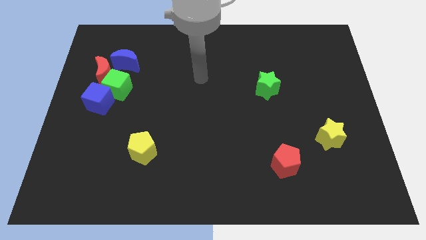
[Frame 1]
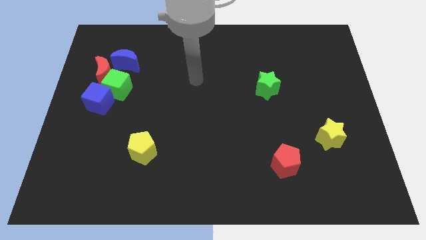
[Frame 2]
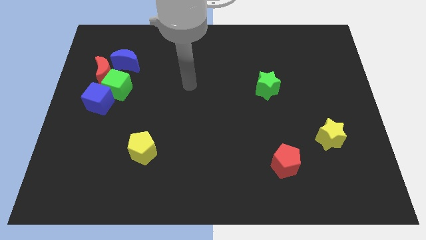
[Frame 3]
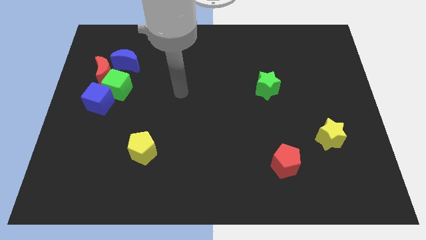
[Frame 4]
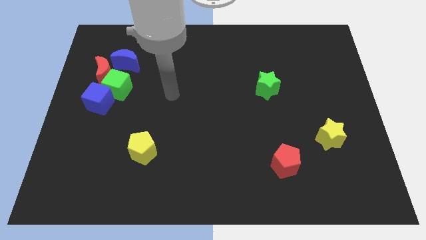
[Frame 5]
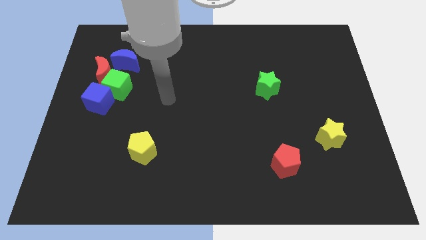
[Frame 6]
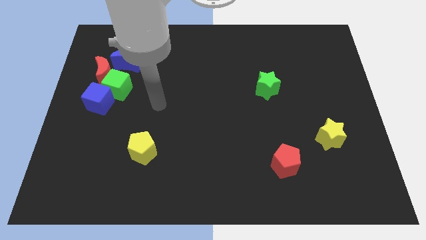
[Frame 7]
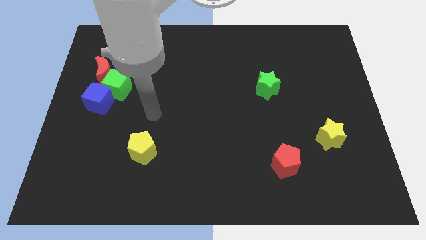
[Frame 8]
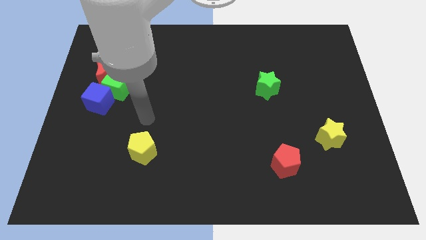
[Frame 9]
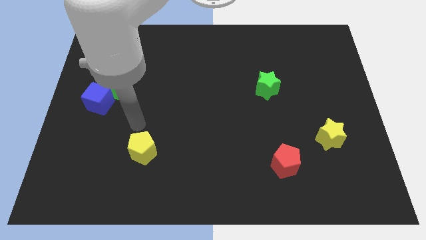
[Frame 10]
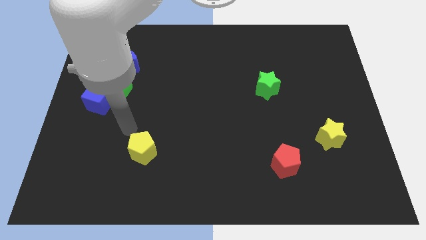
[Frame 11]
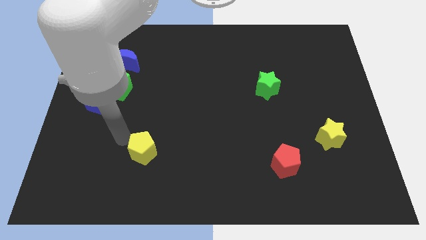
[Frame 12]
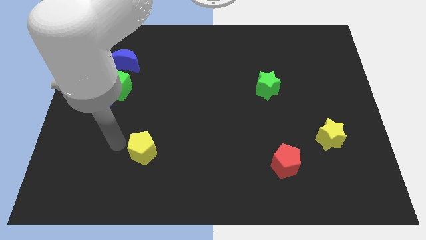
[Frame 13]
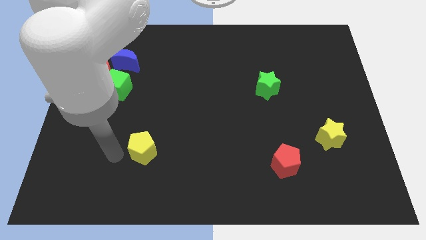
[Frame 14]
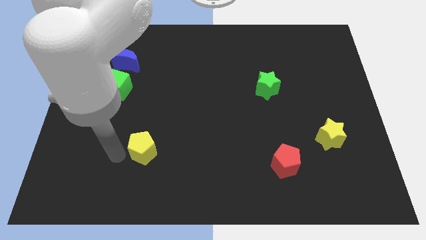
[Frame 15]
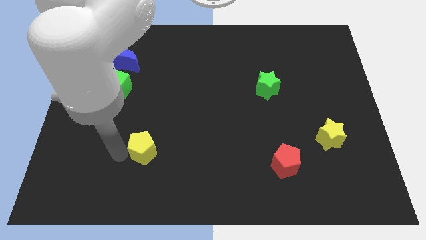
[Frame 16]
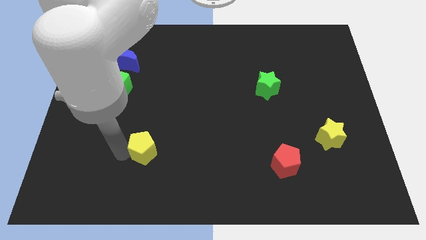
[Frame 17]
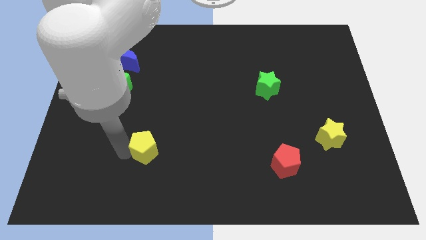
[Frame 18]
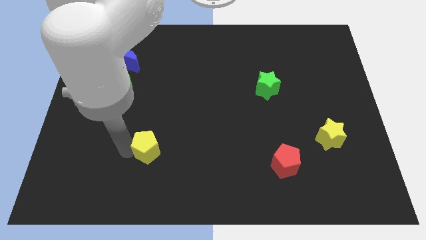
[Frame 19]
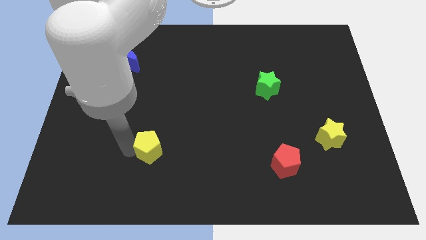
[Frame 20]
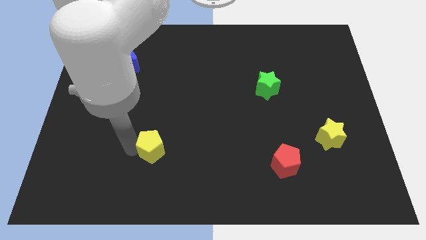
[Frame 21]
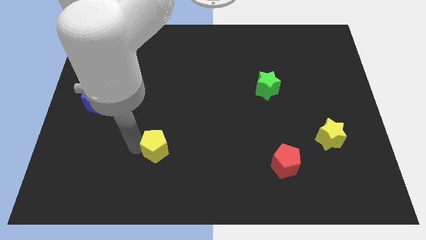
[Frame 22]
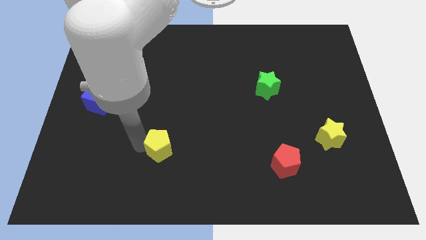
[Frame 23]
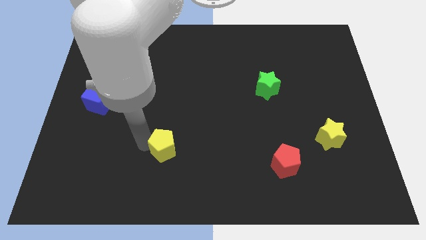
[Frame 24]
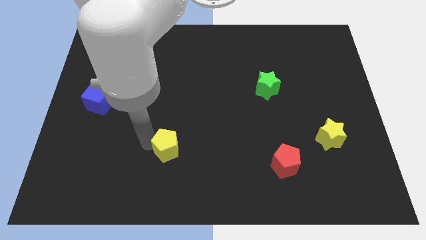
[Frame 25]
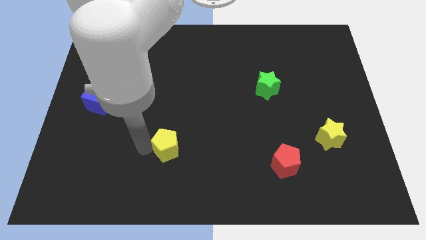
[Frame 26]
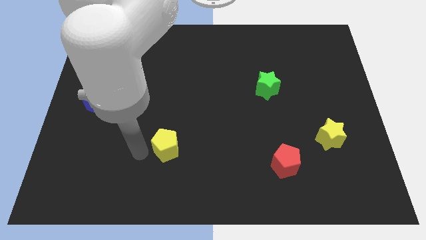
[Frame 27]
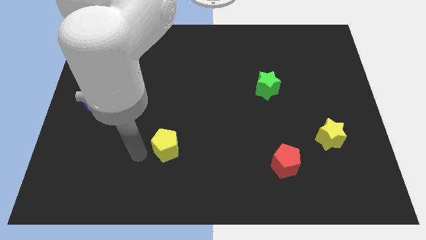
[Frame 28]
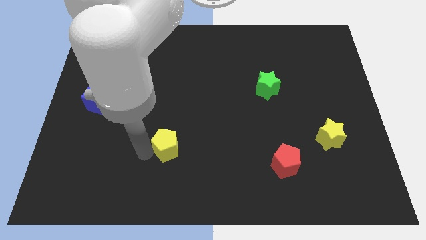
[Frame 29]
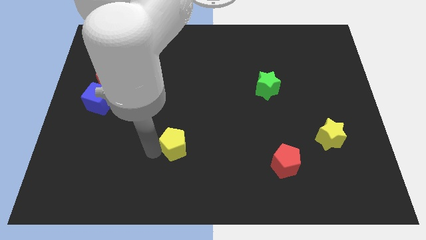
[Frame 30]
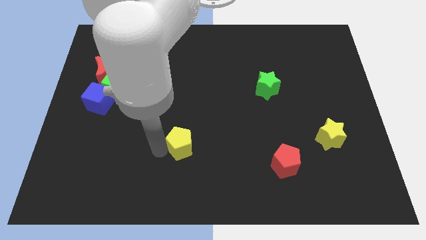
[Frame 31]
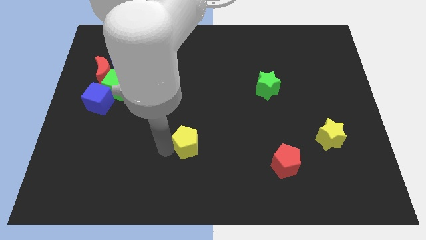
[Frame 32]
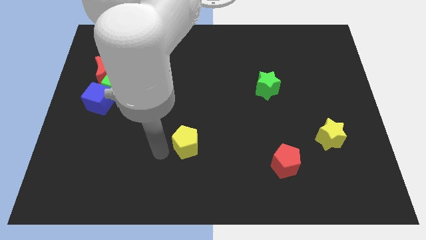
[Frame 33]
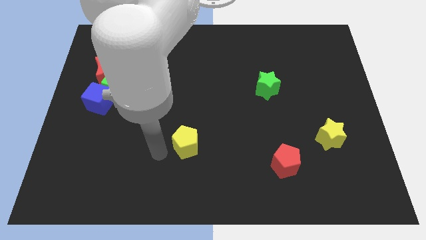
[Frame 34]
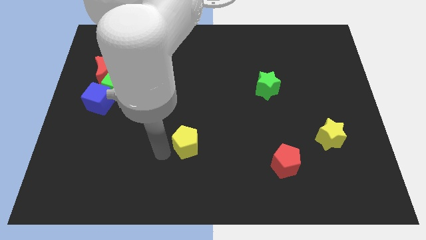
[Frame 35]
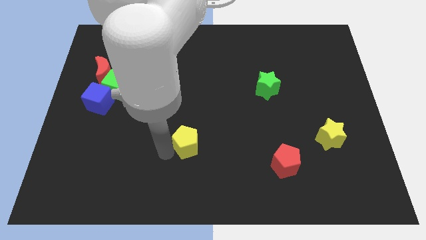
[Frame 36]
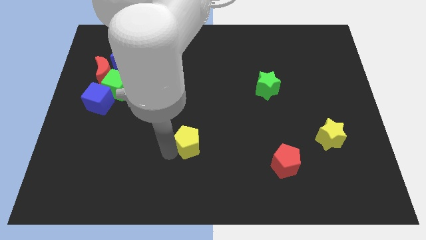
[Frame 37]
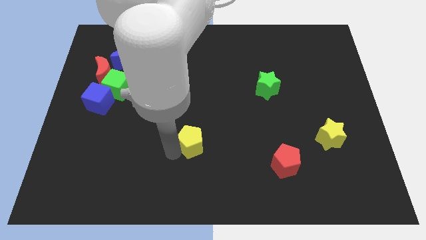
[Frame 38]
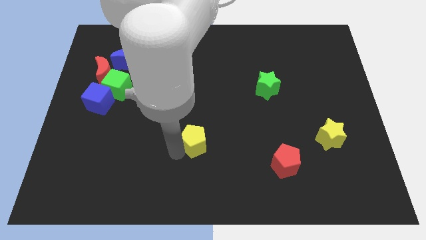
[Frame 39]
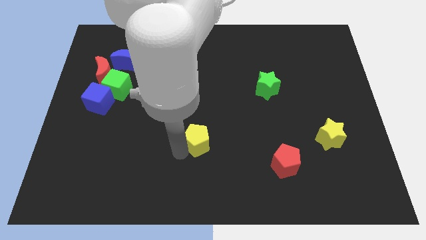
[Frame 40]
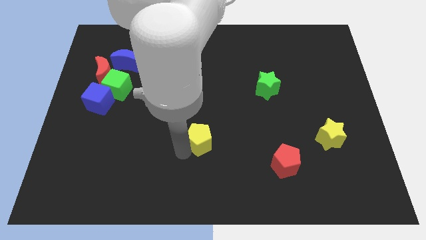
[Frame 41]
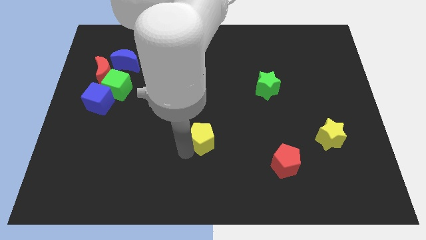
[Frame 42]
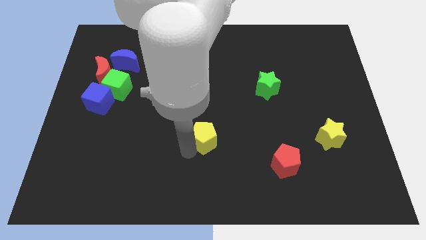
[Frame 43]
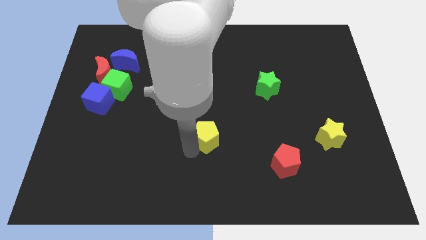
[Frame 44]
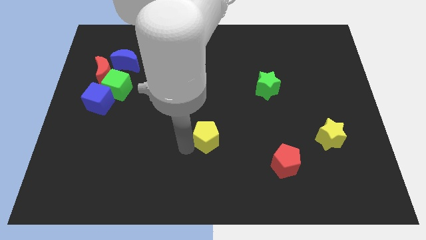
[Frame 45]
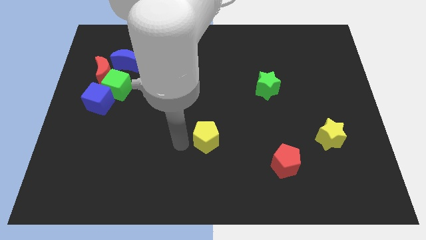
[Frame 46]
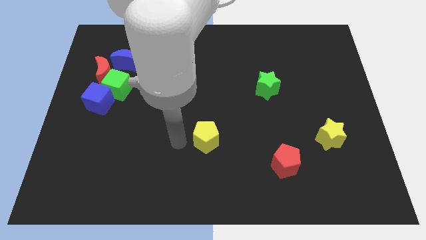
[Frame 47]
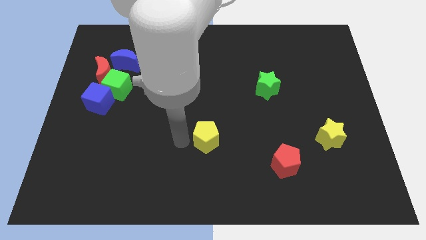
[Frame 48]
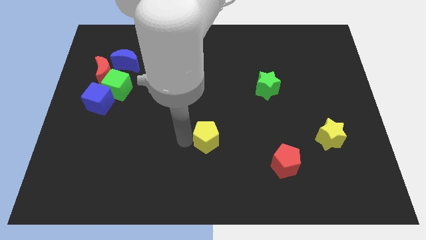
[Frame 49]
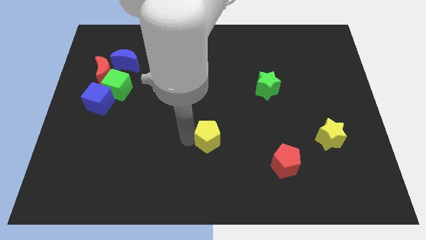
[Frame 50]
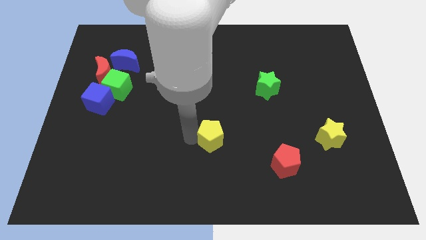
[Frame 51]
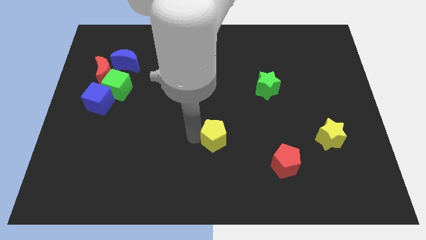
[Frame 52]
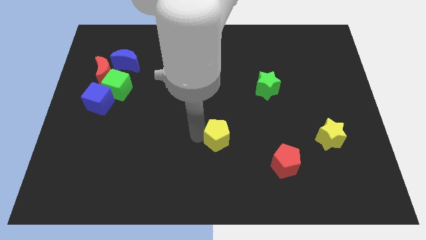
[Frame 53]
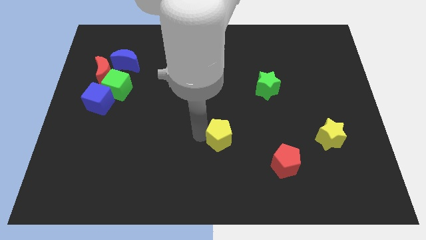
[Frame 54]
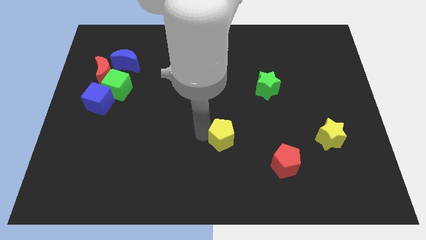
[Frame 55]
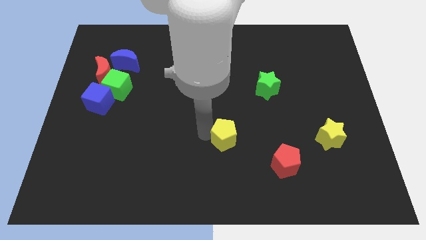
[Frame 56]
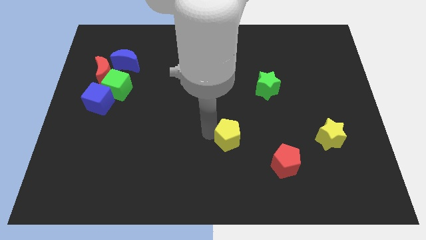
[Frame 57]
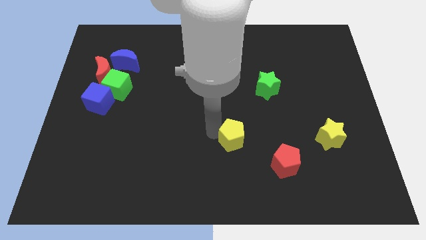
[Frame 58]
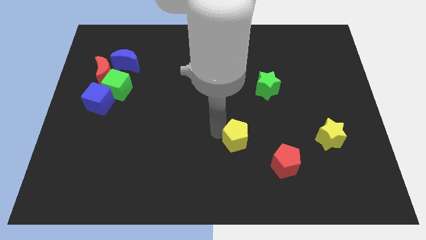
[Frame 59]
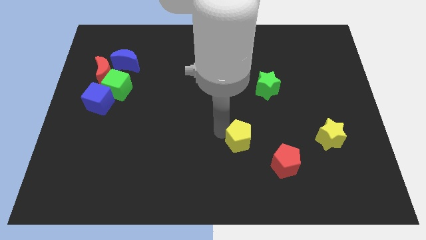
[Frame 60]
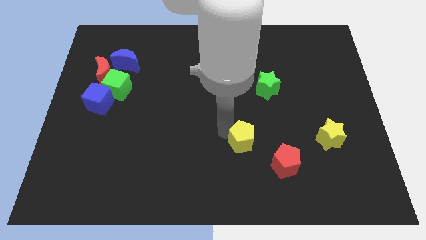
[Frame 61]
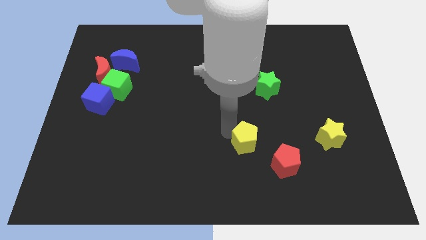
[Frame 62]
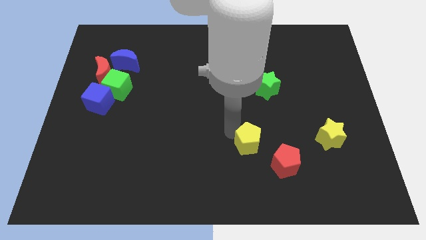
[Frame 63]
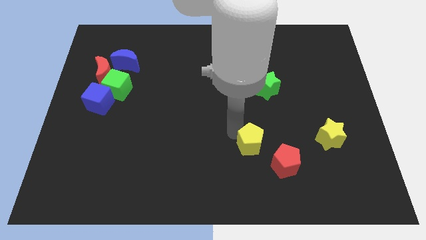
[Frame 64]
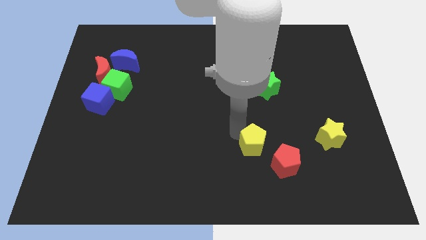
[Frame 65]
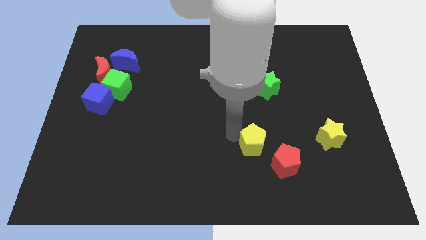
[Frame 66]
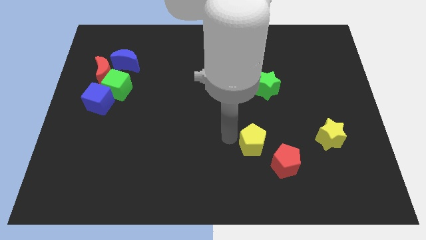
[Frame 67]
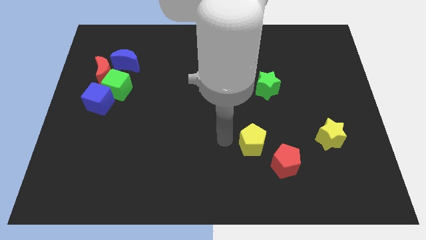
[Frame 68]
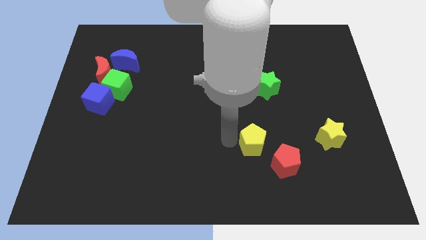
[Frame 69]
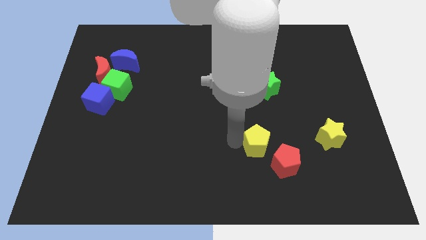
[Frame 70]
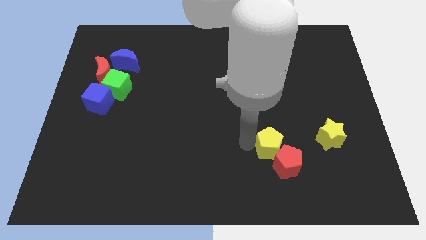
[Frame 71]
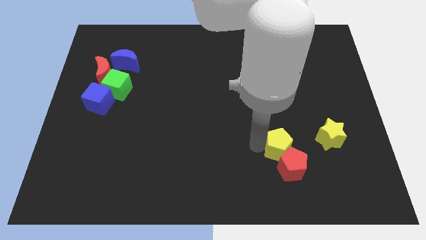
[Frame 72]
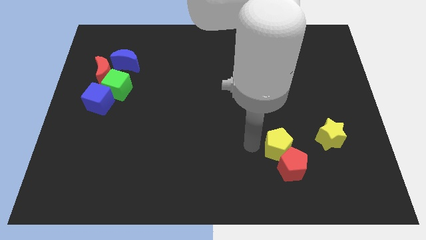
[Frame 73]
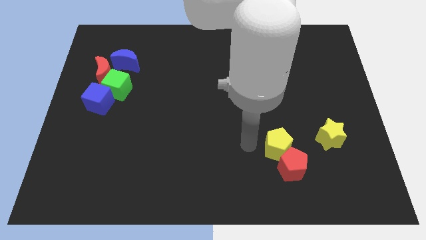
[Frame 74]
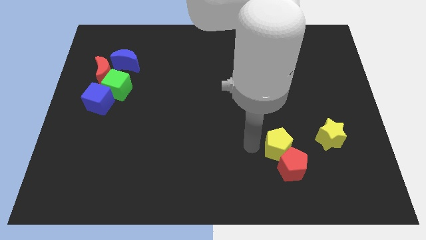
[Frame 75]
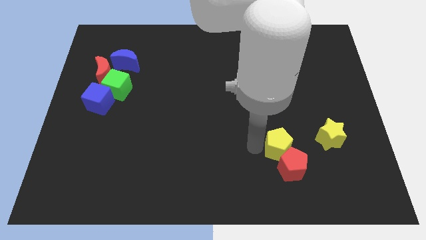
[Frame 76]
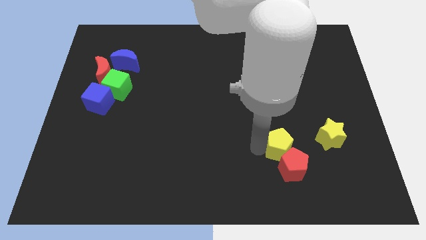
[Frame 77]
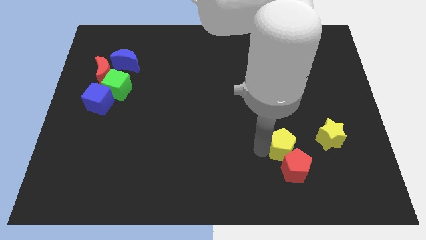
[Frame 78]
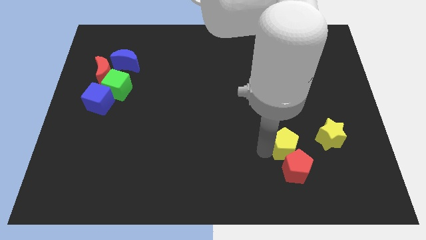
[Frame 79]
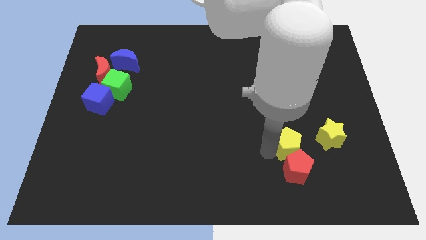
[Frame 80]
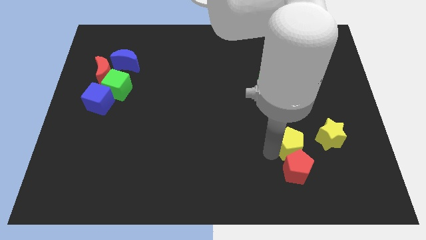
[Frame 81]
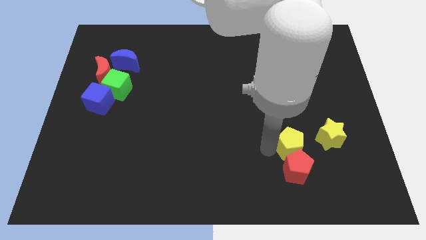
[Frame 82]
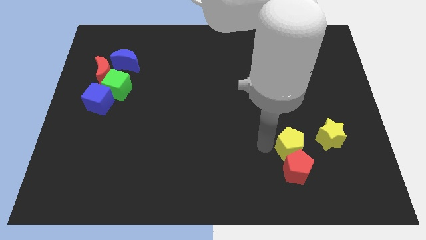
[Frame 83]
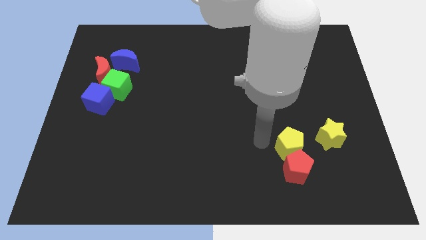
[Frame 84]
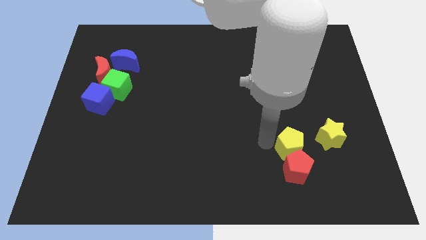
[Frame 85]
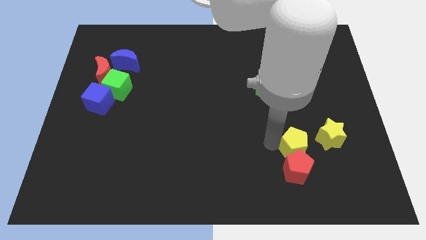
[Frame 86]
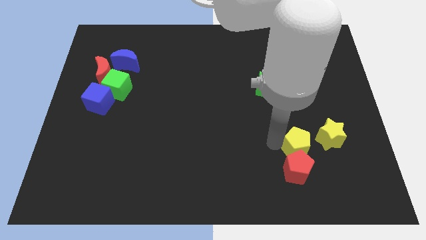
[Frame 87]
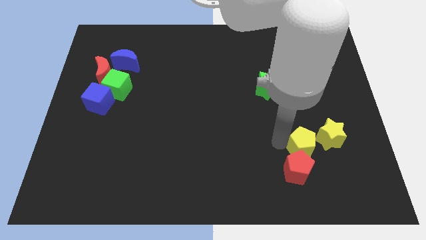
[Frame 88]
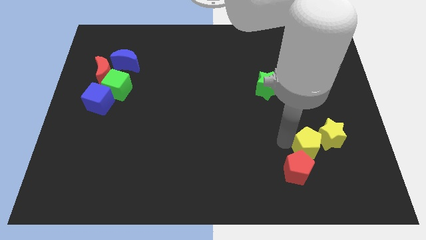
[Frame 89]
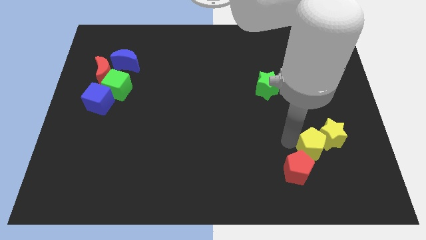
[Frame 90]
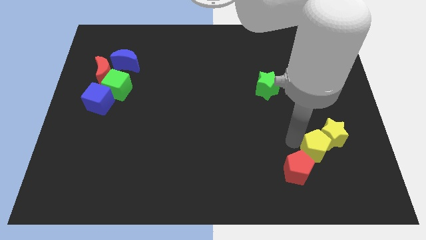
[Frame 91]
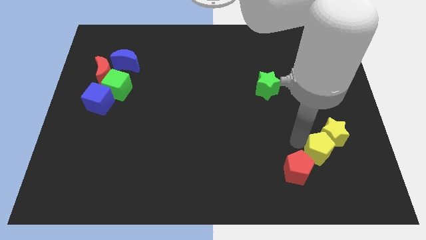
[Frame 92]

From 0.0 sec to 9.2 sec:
push the yellow pentagon right of the red pentagon
